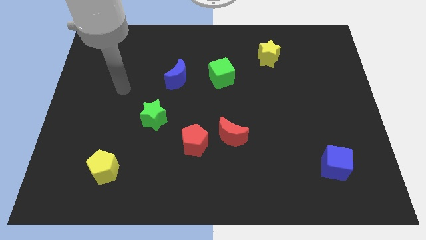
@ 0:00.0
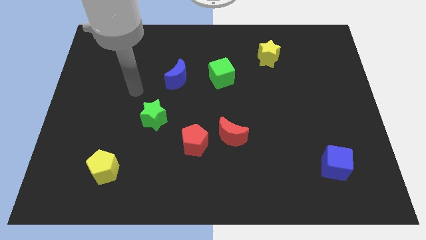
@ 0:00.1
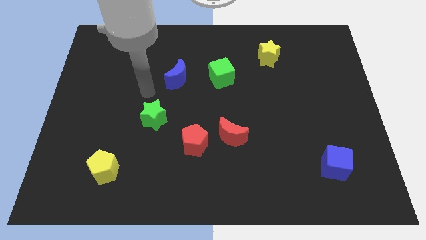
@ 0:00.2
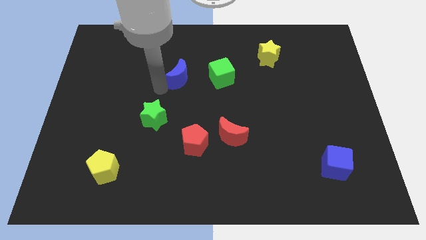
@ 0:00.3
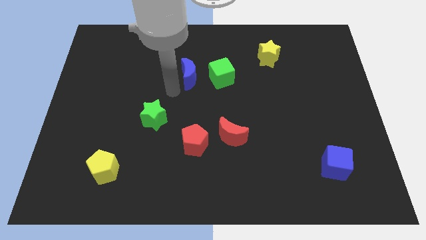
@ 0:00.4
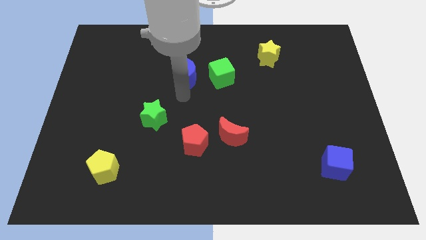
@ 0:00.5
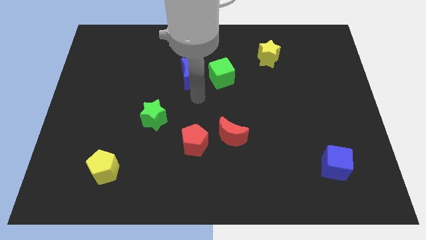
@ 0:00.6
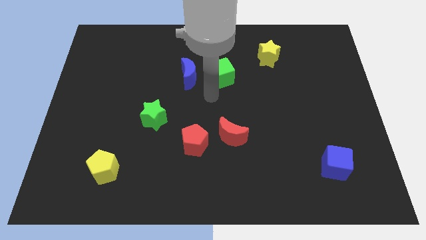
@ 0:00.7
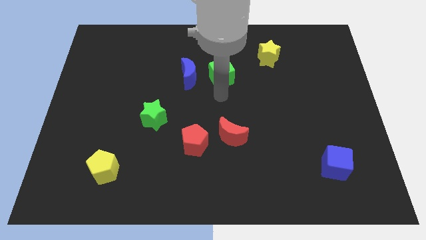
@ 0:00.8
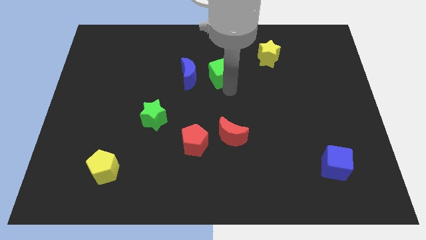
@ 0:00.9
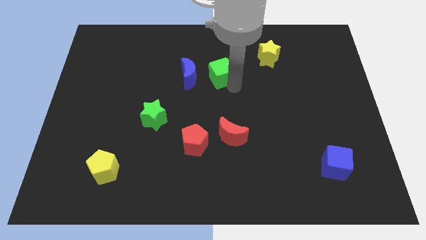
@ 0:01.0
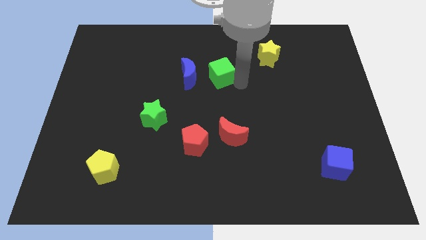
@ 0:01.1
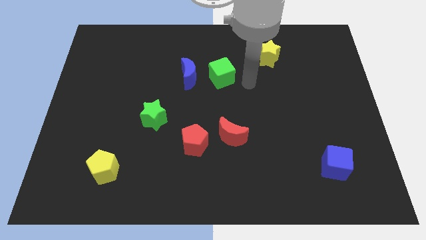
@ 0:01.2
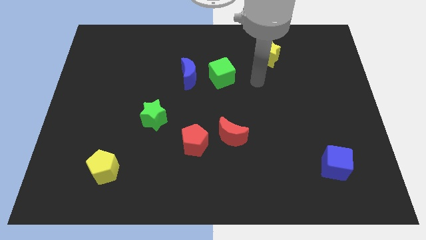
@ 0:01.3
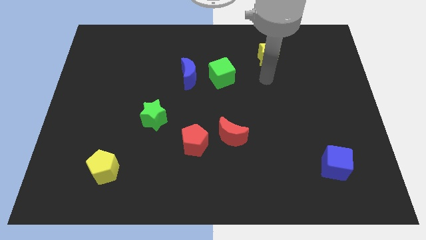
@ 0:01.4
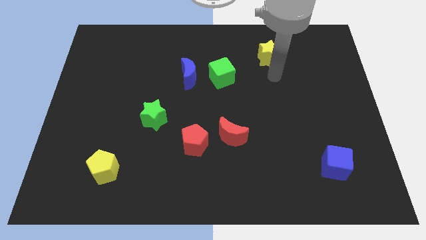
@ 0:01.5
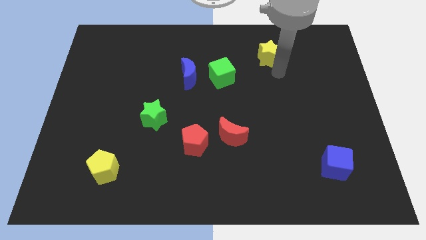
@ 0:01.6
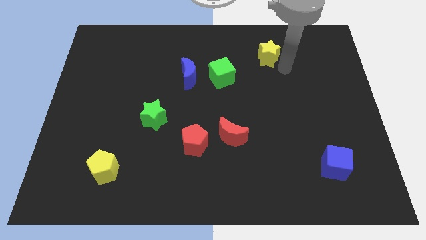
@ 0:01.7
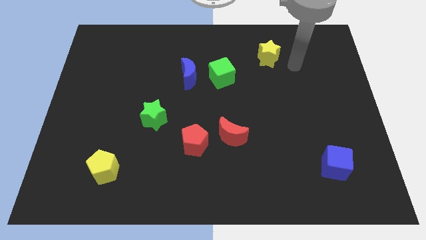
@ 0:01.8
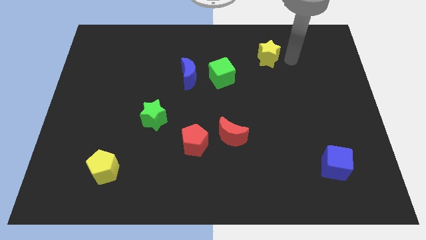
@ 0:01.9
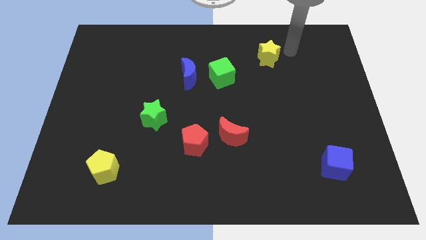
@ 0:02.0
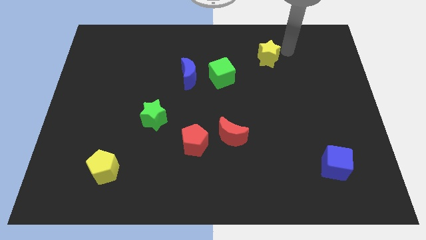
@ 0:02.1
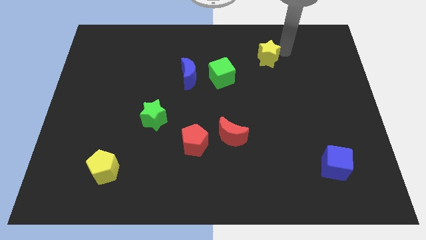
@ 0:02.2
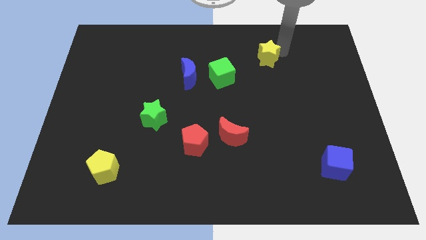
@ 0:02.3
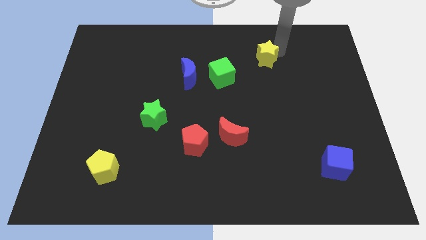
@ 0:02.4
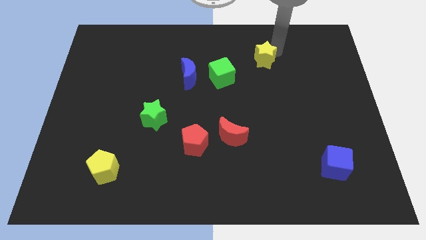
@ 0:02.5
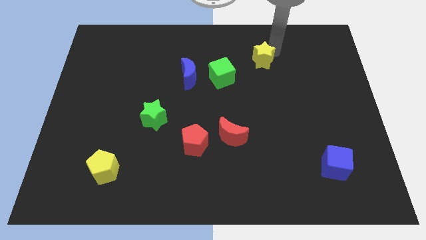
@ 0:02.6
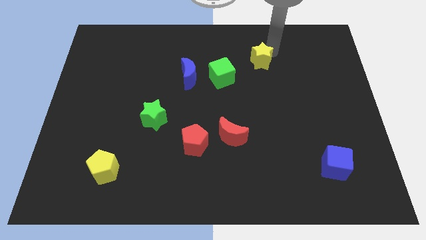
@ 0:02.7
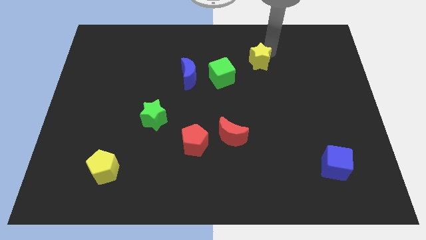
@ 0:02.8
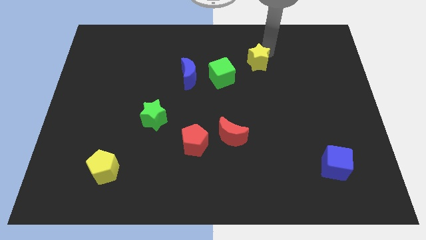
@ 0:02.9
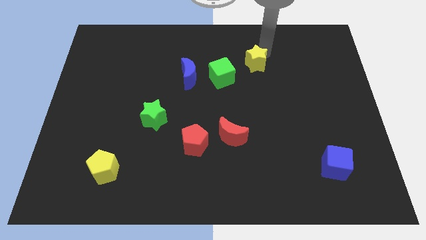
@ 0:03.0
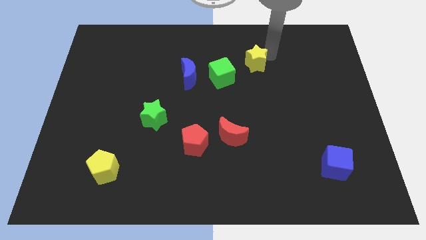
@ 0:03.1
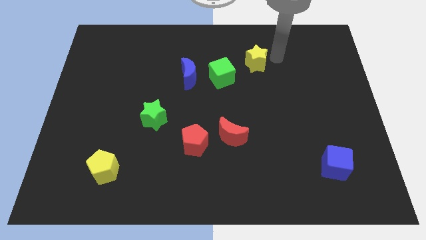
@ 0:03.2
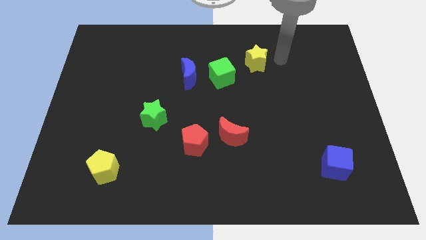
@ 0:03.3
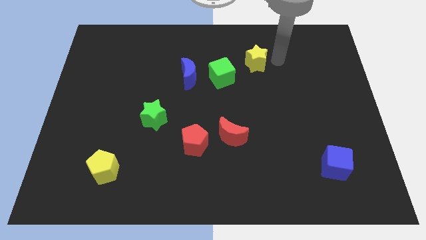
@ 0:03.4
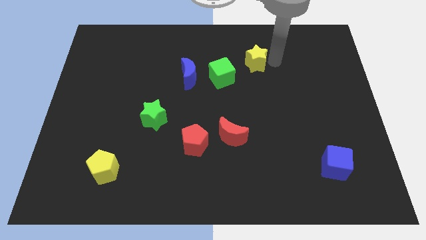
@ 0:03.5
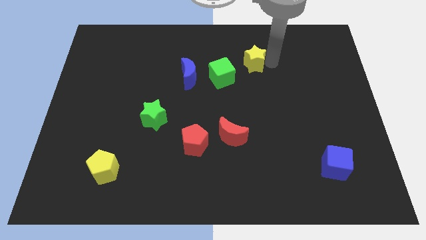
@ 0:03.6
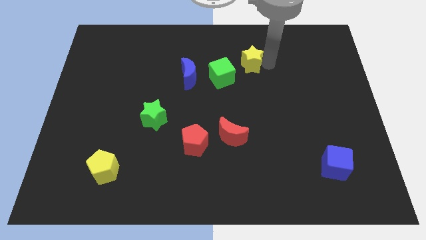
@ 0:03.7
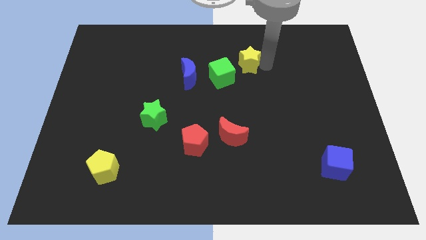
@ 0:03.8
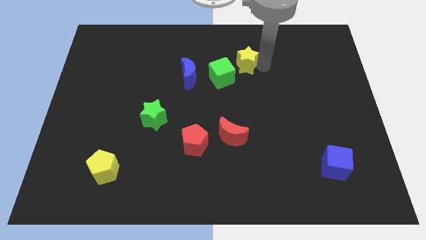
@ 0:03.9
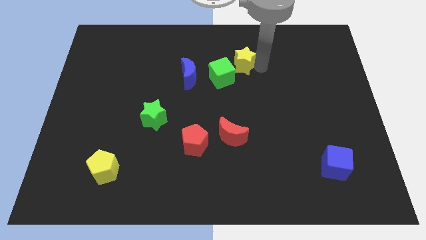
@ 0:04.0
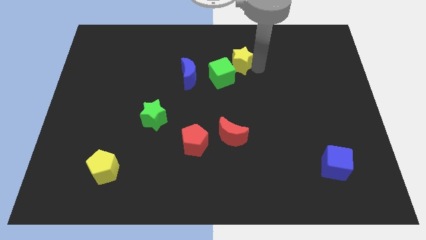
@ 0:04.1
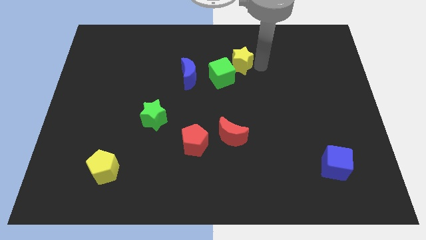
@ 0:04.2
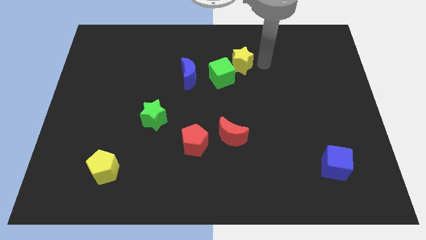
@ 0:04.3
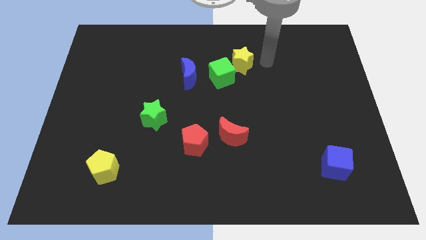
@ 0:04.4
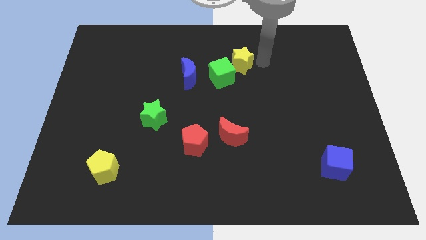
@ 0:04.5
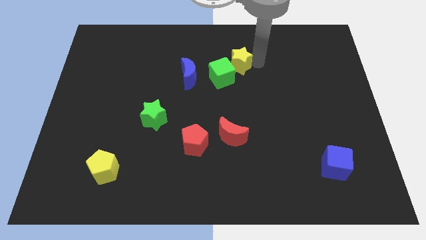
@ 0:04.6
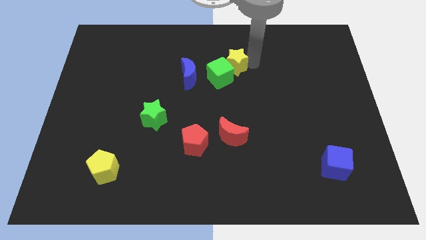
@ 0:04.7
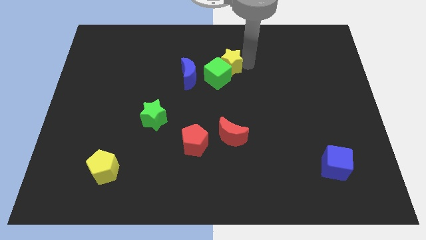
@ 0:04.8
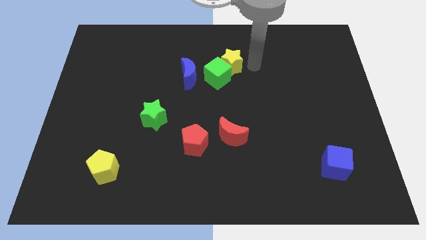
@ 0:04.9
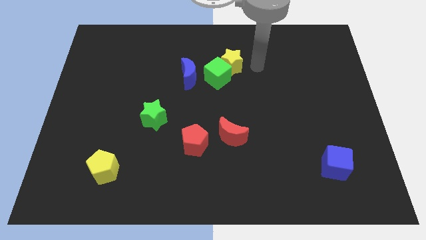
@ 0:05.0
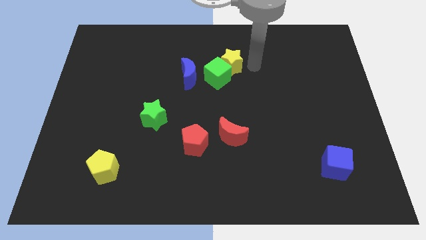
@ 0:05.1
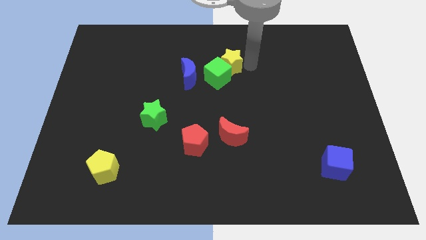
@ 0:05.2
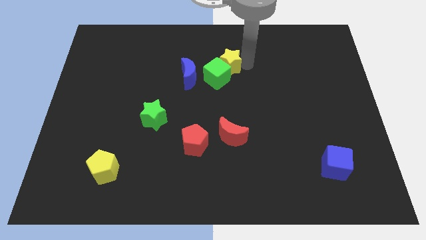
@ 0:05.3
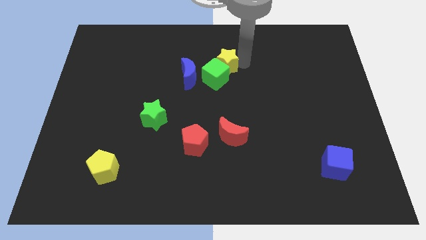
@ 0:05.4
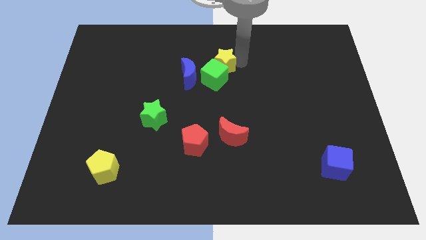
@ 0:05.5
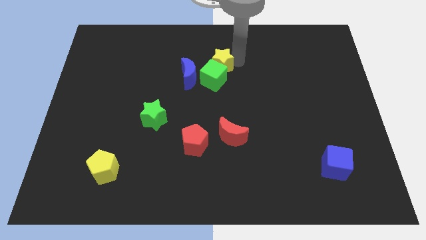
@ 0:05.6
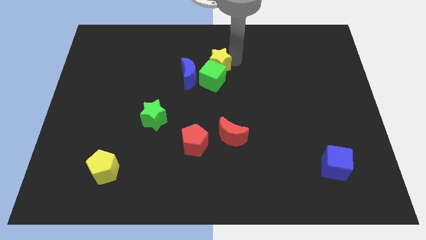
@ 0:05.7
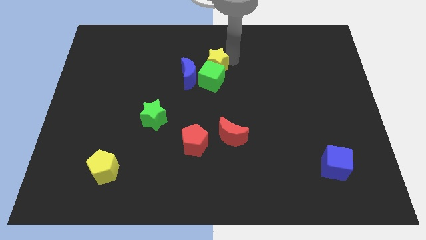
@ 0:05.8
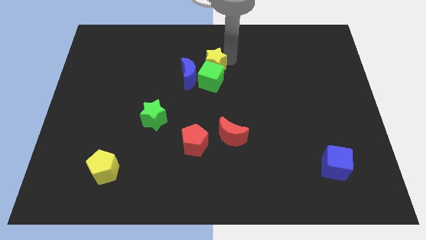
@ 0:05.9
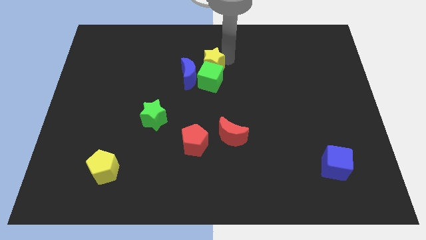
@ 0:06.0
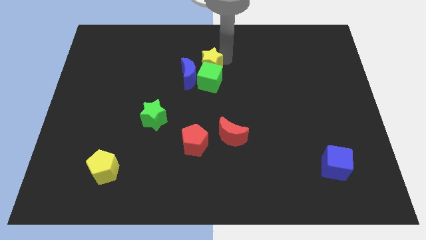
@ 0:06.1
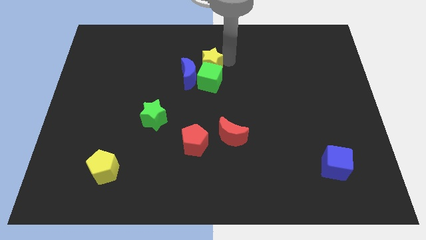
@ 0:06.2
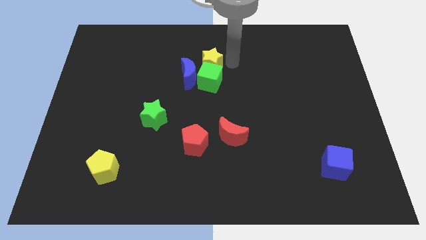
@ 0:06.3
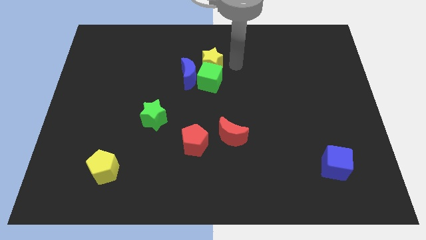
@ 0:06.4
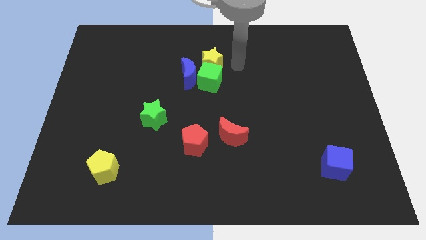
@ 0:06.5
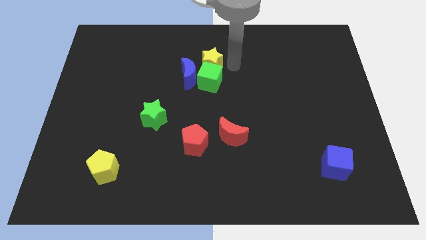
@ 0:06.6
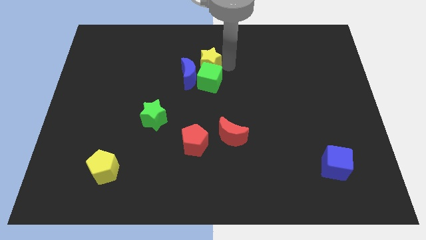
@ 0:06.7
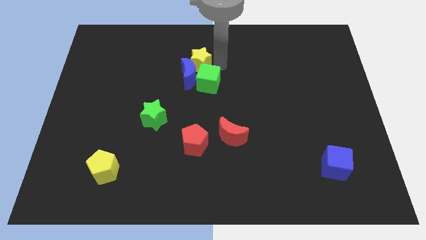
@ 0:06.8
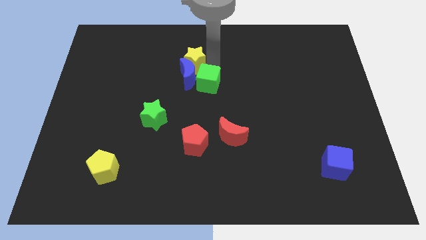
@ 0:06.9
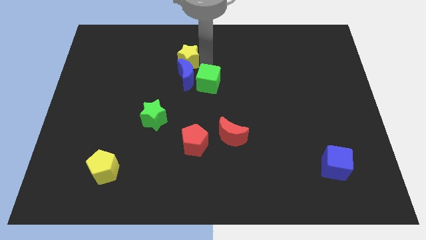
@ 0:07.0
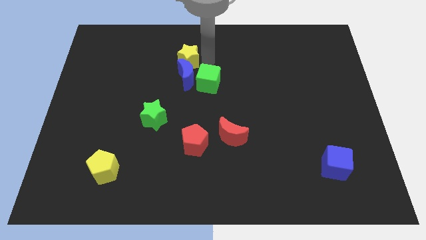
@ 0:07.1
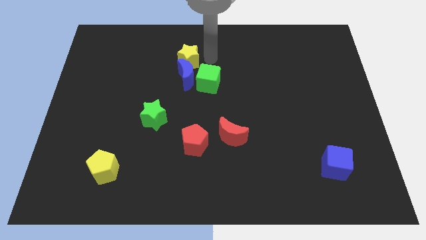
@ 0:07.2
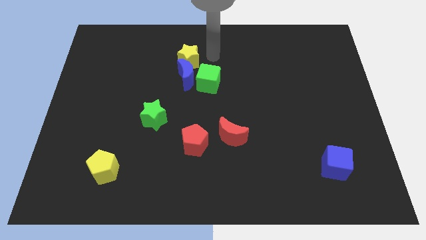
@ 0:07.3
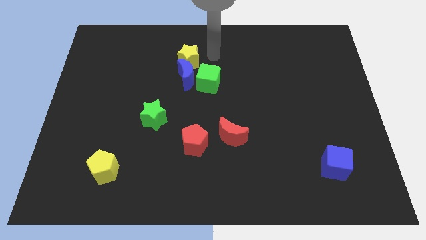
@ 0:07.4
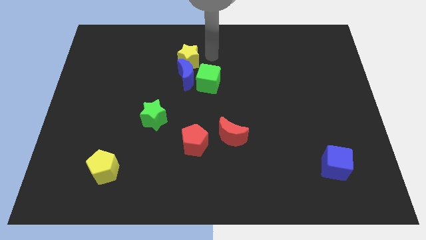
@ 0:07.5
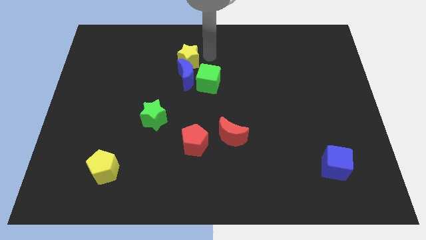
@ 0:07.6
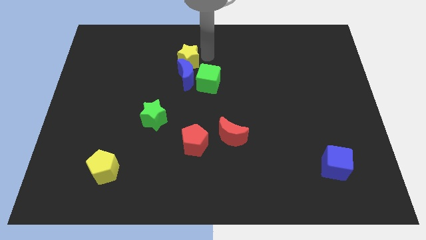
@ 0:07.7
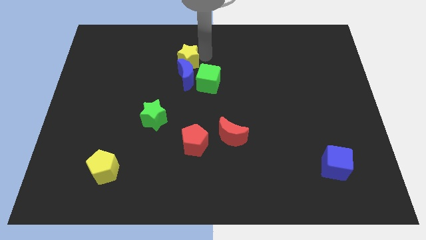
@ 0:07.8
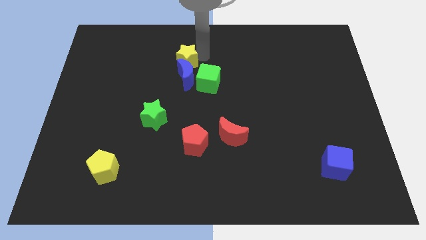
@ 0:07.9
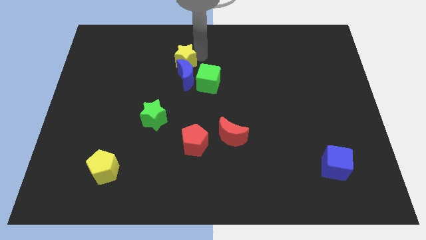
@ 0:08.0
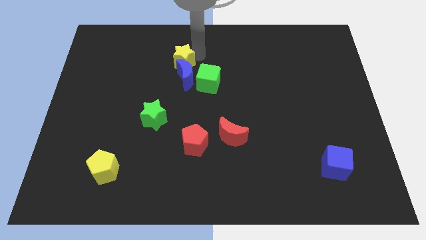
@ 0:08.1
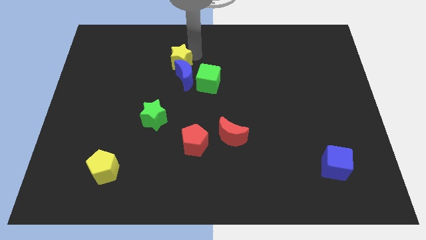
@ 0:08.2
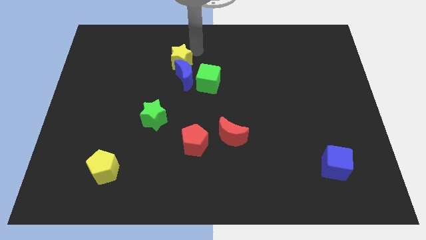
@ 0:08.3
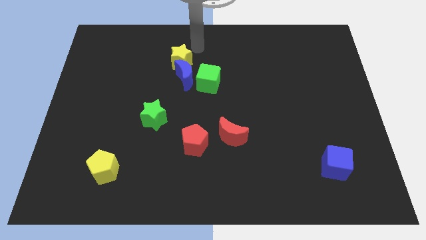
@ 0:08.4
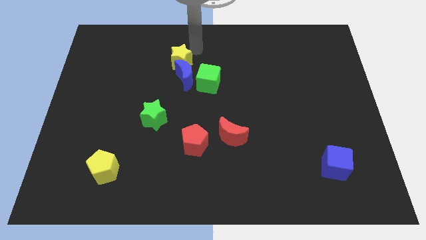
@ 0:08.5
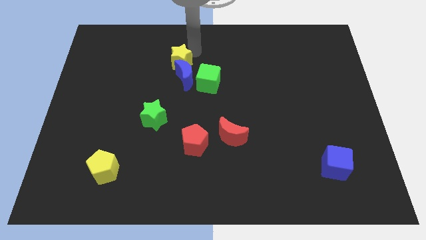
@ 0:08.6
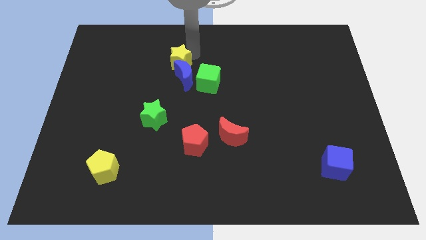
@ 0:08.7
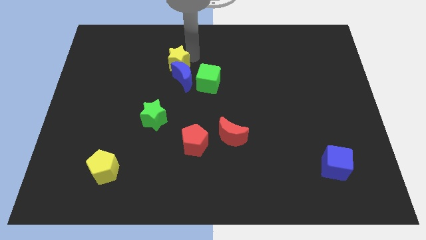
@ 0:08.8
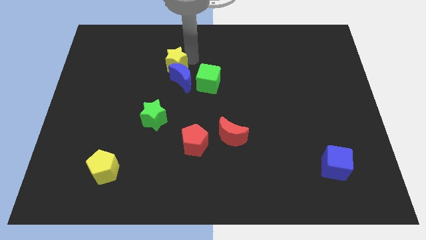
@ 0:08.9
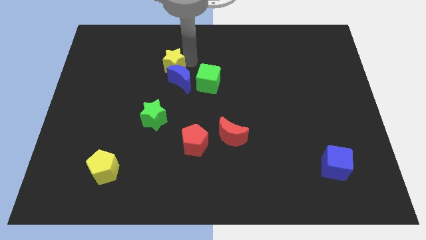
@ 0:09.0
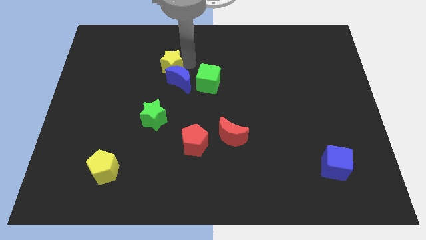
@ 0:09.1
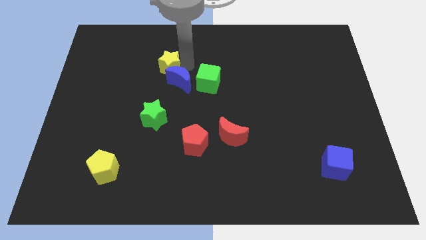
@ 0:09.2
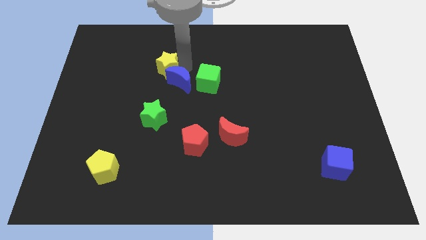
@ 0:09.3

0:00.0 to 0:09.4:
slide the yellow star to the top of the green star
